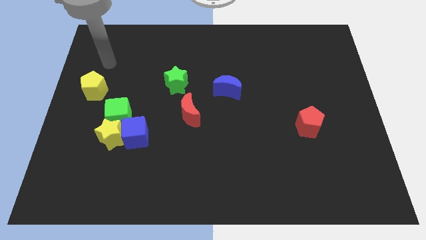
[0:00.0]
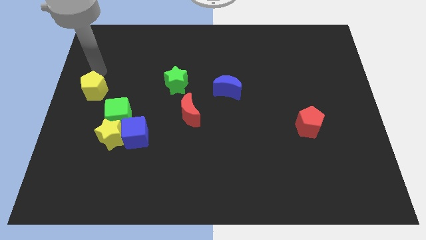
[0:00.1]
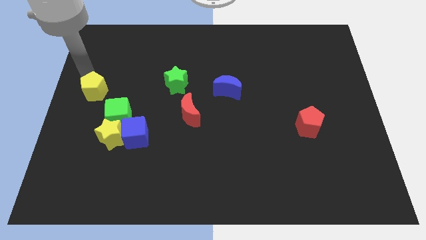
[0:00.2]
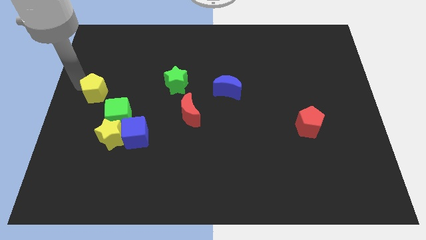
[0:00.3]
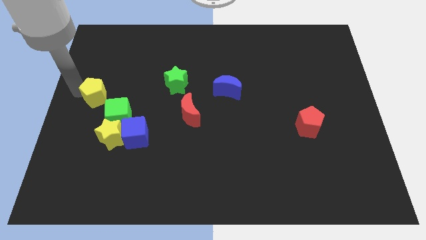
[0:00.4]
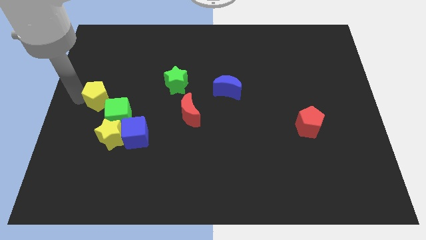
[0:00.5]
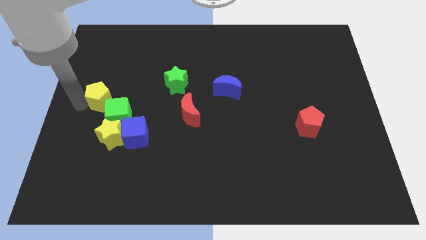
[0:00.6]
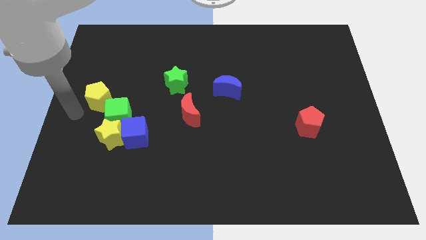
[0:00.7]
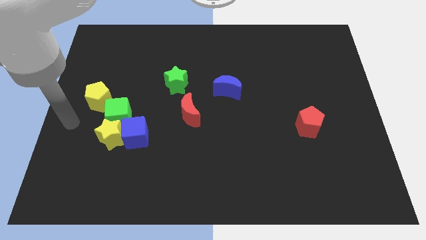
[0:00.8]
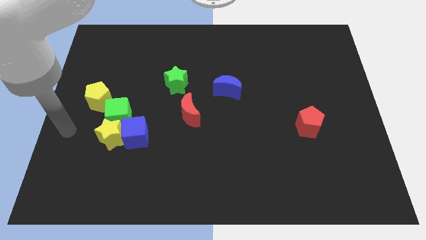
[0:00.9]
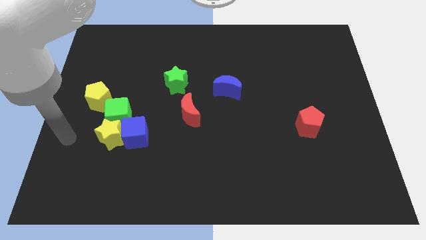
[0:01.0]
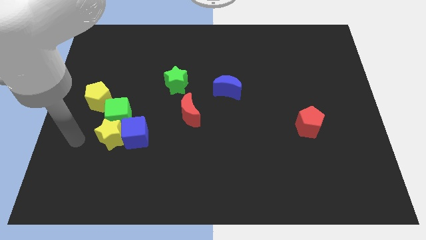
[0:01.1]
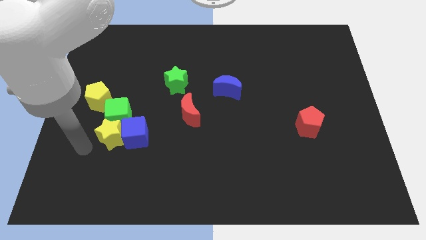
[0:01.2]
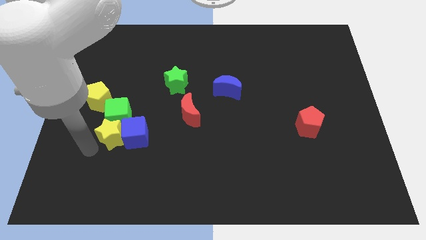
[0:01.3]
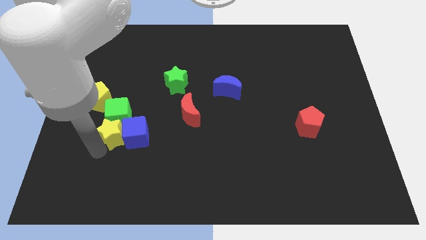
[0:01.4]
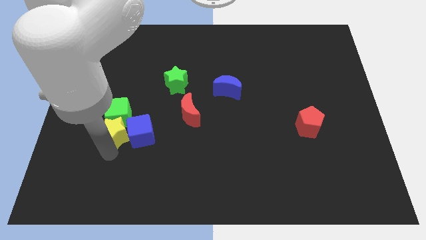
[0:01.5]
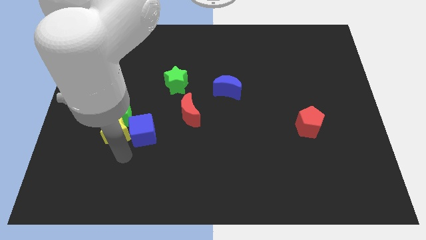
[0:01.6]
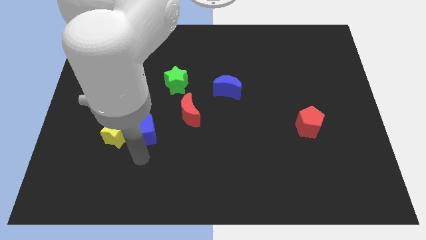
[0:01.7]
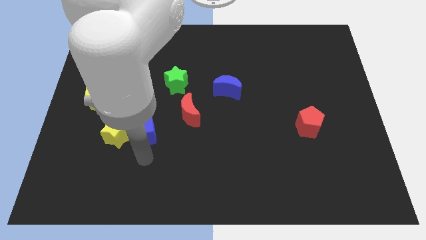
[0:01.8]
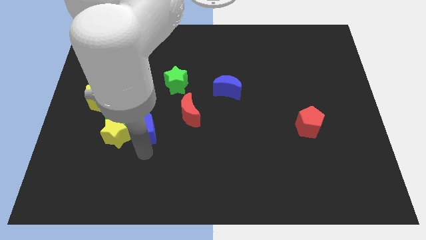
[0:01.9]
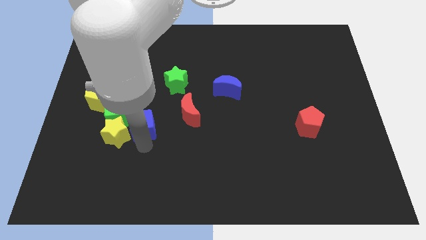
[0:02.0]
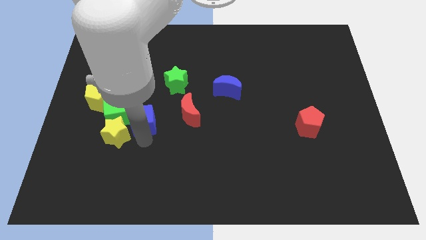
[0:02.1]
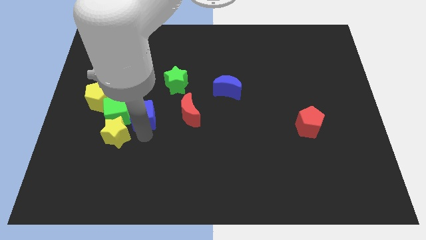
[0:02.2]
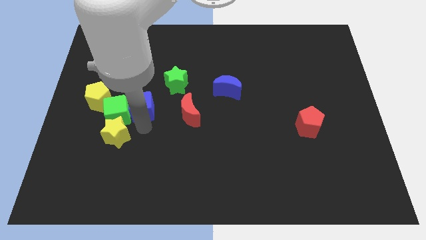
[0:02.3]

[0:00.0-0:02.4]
push the blue cube slightly up

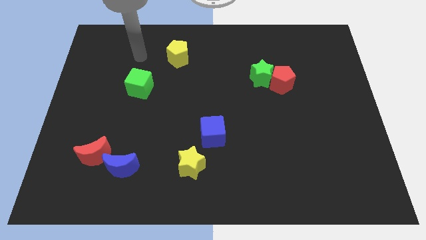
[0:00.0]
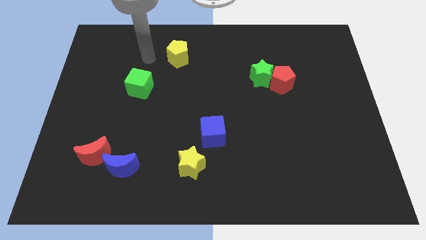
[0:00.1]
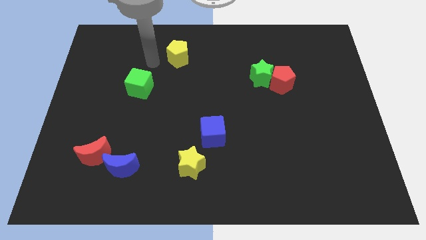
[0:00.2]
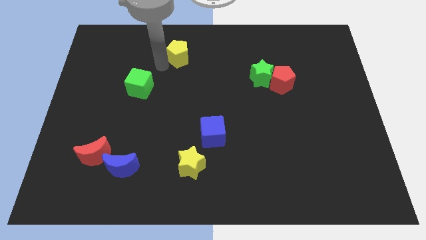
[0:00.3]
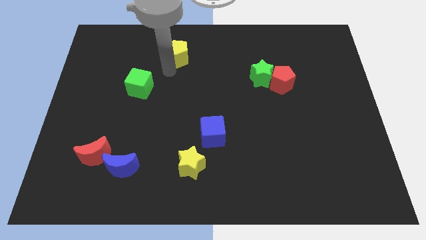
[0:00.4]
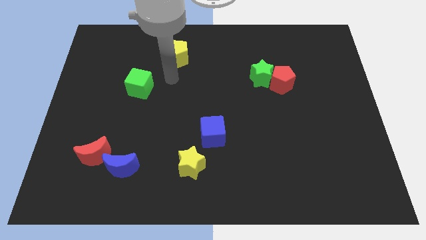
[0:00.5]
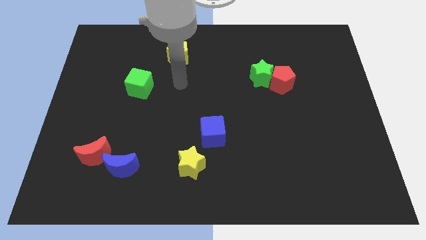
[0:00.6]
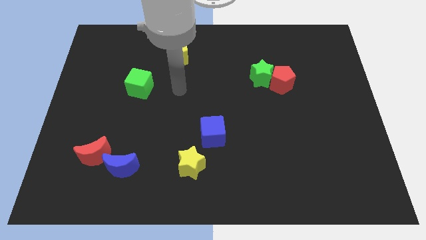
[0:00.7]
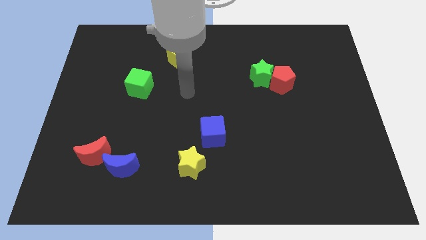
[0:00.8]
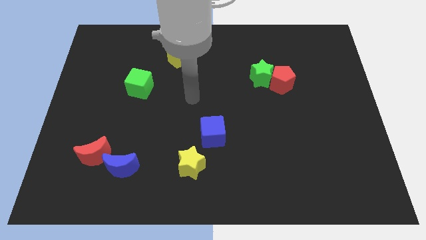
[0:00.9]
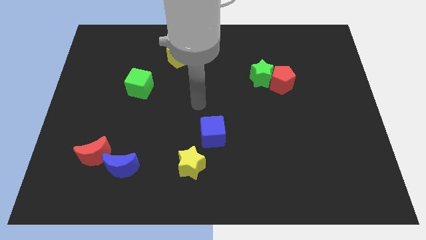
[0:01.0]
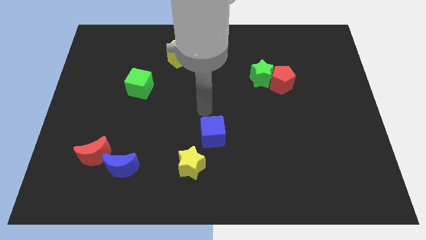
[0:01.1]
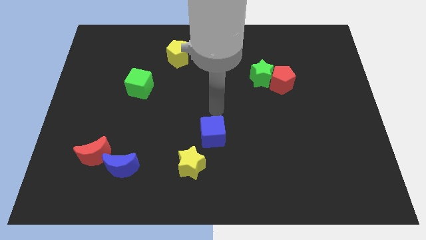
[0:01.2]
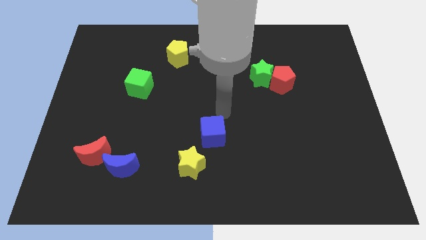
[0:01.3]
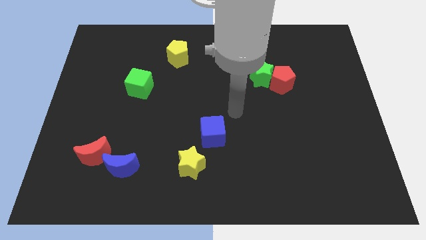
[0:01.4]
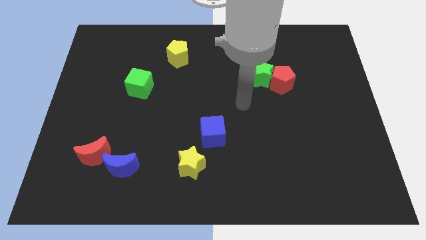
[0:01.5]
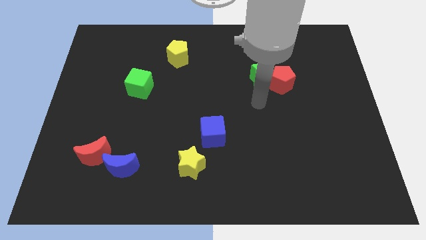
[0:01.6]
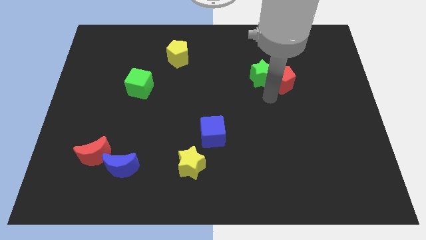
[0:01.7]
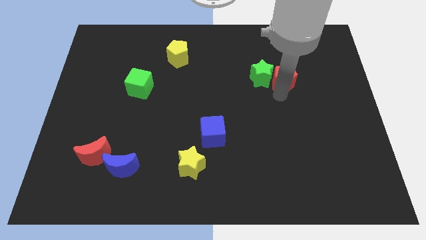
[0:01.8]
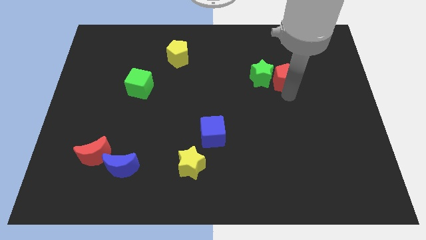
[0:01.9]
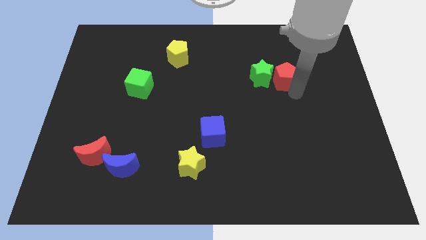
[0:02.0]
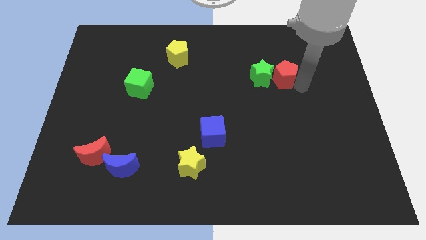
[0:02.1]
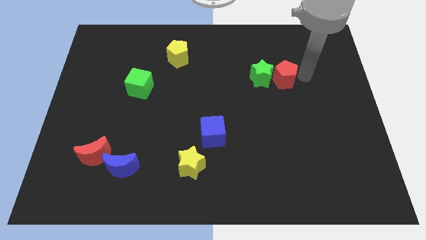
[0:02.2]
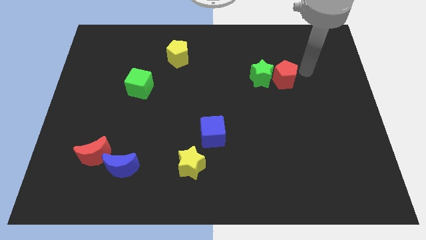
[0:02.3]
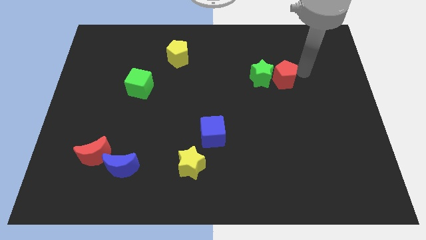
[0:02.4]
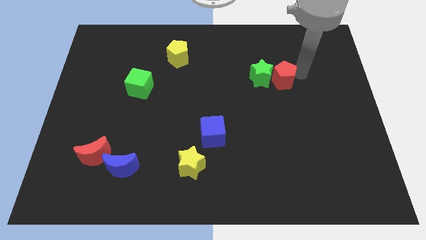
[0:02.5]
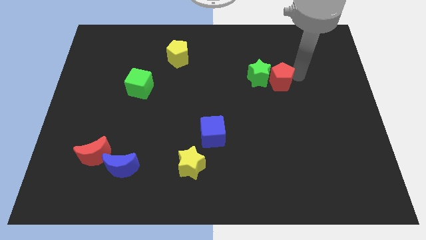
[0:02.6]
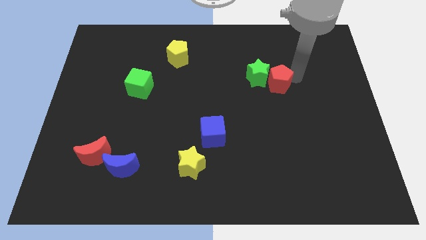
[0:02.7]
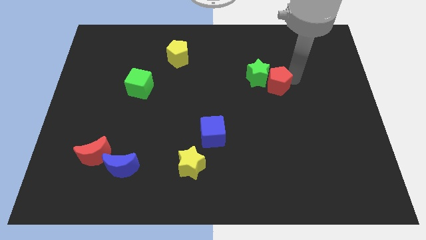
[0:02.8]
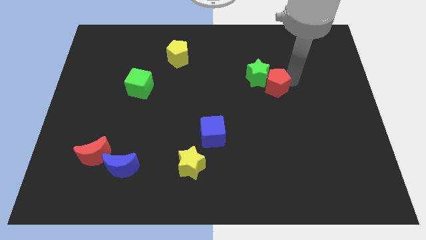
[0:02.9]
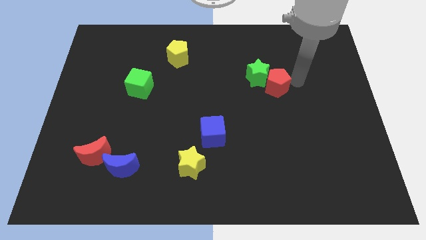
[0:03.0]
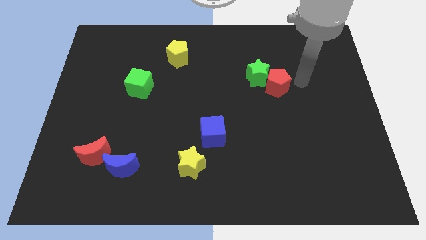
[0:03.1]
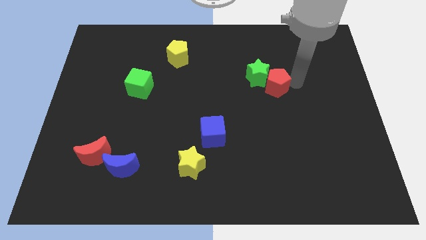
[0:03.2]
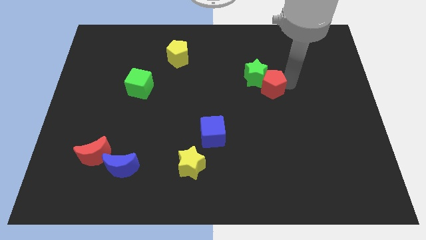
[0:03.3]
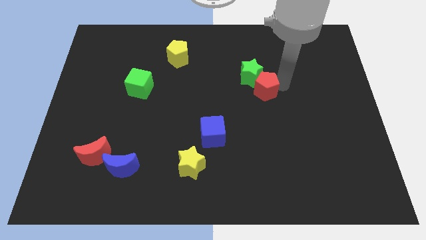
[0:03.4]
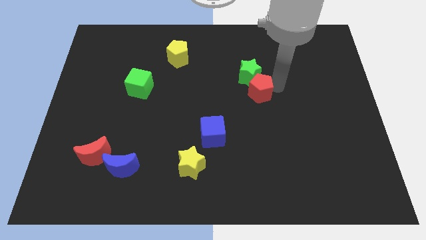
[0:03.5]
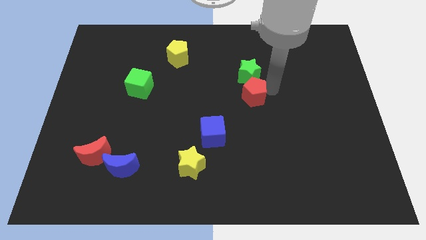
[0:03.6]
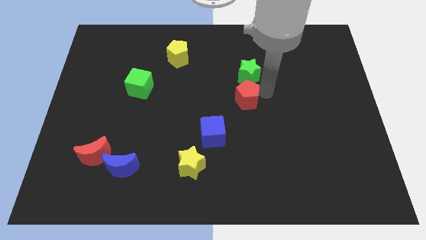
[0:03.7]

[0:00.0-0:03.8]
slide the red pentagon slightly left

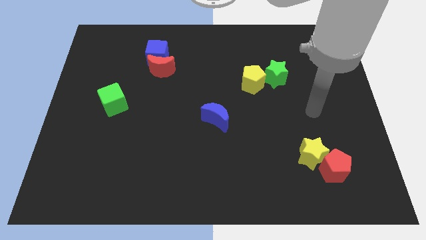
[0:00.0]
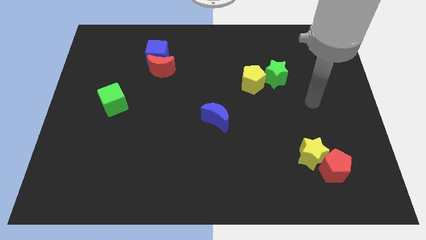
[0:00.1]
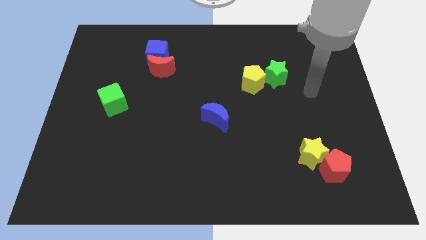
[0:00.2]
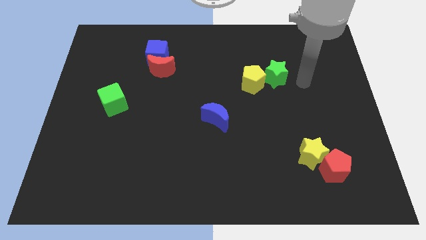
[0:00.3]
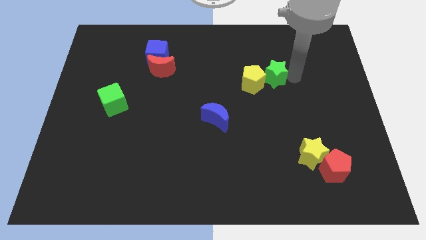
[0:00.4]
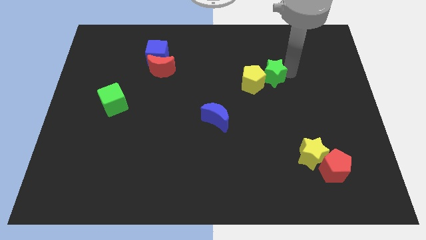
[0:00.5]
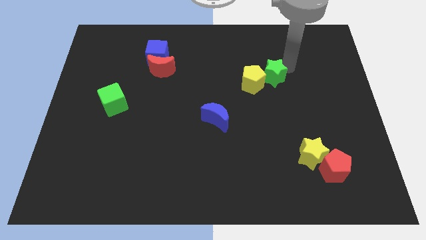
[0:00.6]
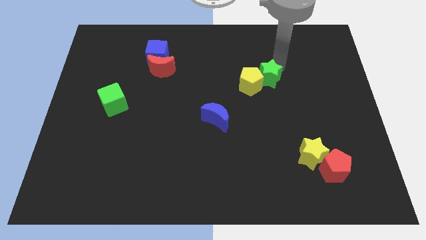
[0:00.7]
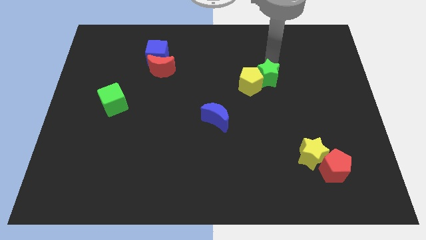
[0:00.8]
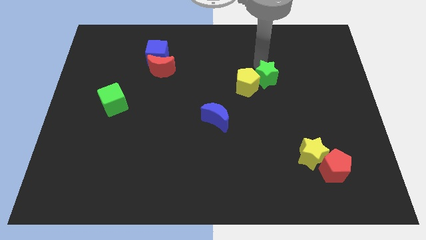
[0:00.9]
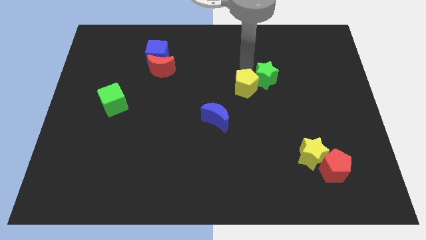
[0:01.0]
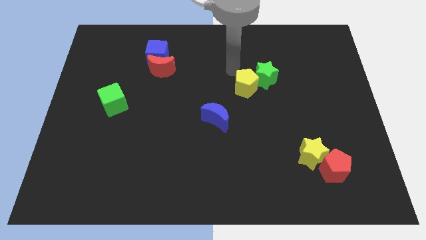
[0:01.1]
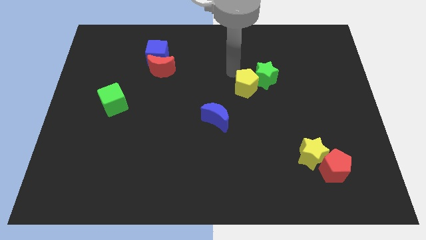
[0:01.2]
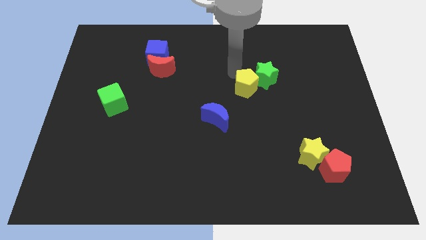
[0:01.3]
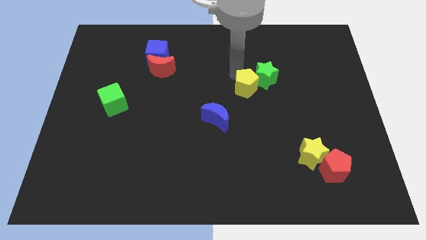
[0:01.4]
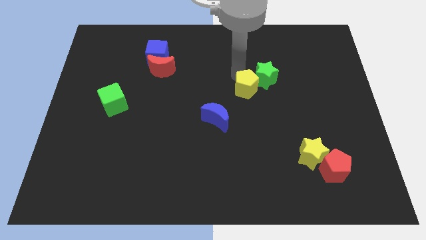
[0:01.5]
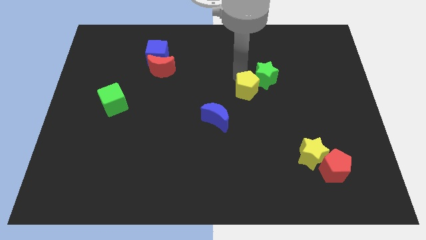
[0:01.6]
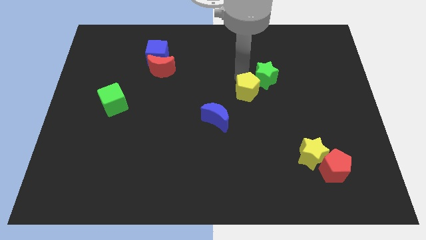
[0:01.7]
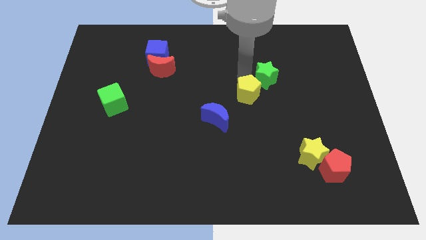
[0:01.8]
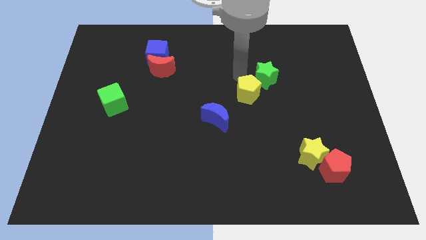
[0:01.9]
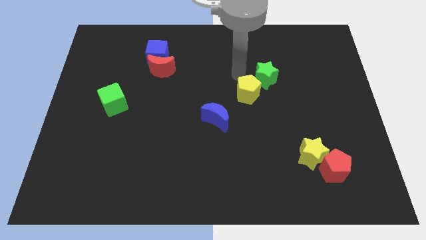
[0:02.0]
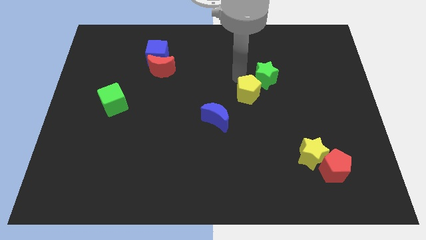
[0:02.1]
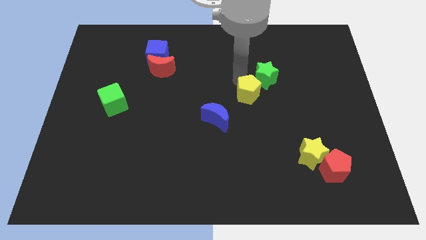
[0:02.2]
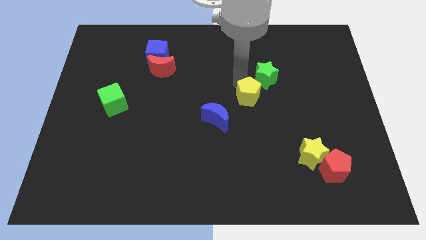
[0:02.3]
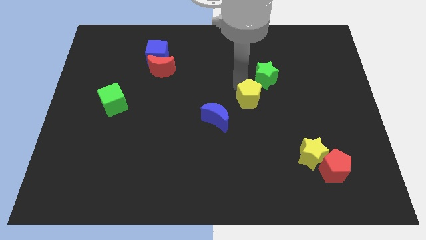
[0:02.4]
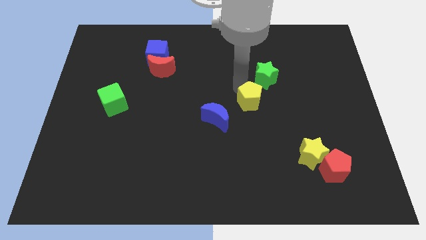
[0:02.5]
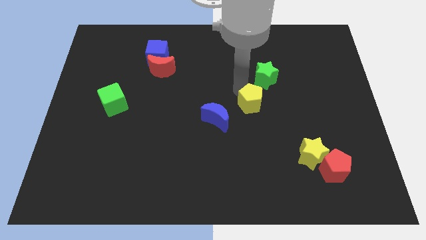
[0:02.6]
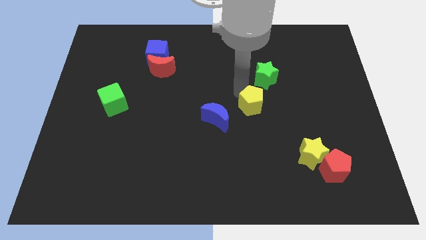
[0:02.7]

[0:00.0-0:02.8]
slide the yellow pentagon a little bit down
